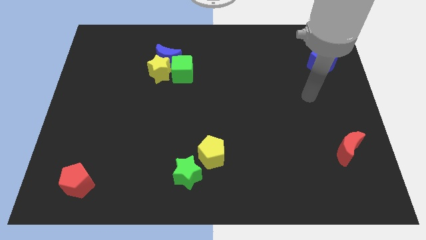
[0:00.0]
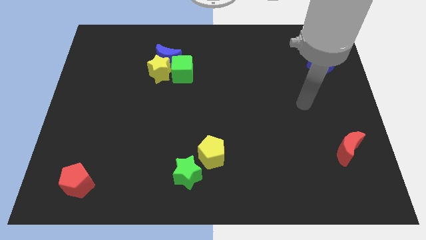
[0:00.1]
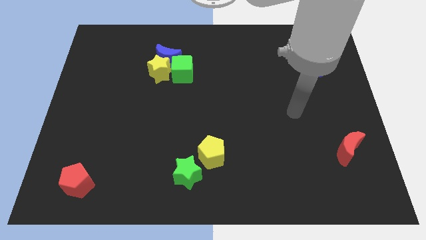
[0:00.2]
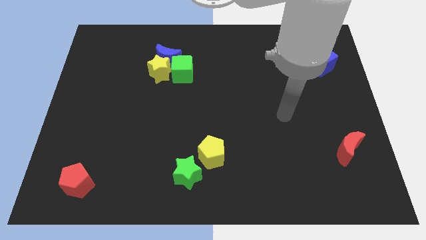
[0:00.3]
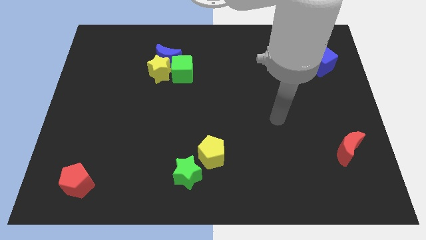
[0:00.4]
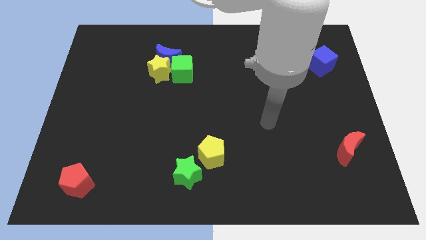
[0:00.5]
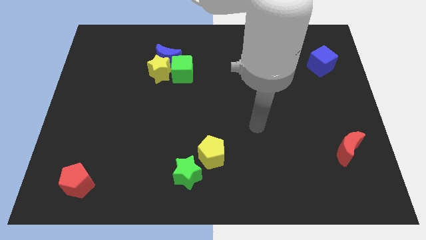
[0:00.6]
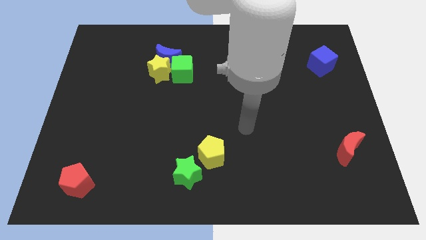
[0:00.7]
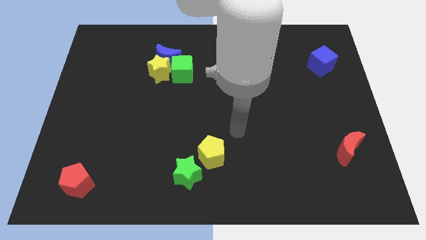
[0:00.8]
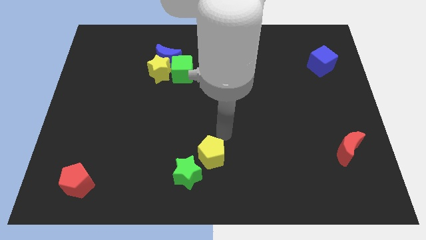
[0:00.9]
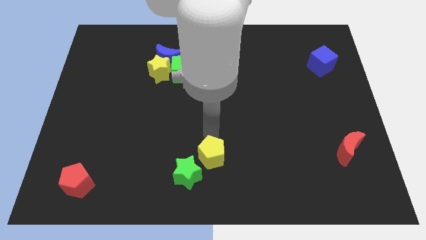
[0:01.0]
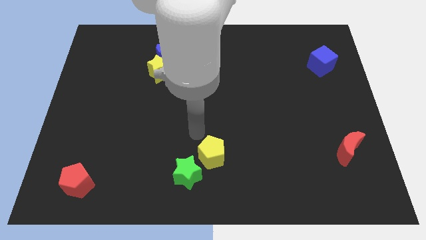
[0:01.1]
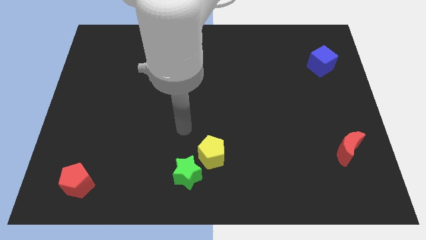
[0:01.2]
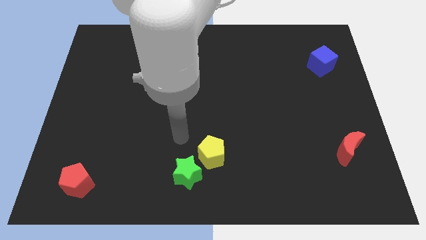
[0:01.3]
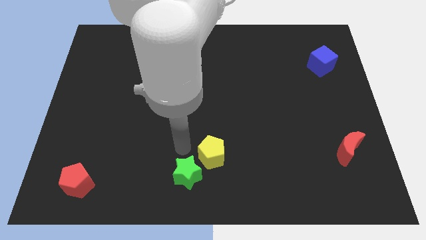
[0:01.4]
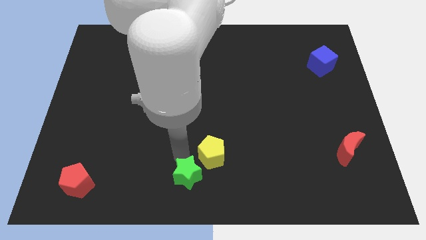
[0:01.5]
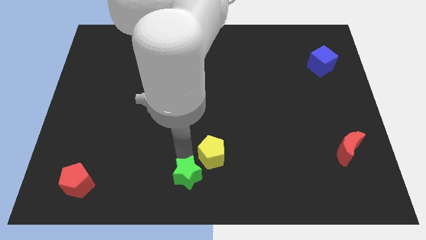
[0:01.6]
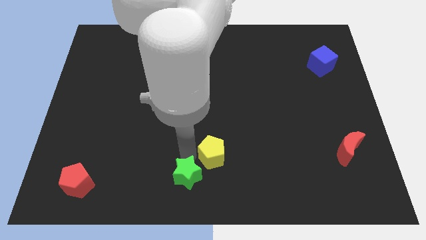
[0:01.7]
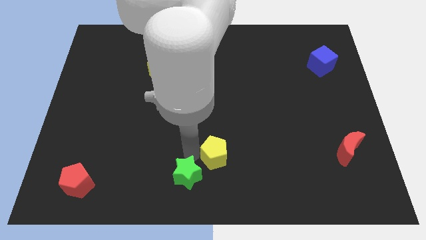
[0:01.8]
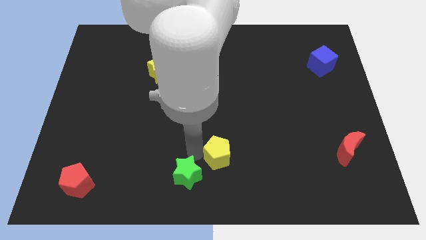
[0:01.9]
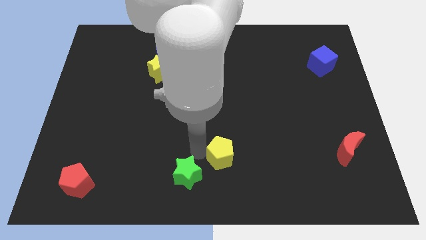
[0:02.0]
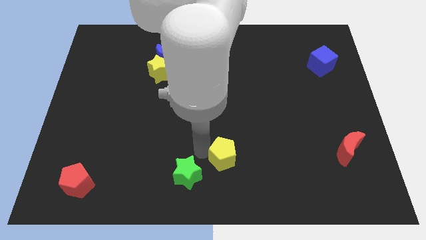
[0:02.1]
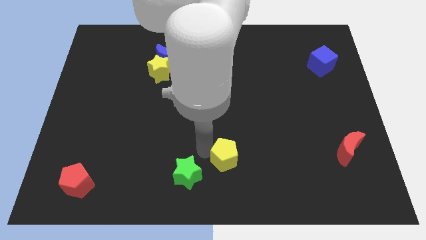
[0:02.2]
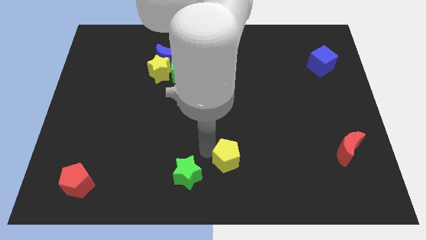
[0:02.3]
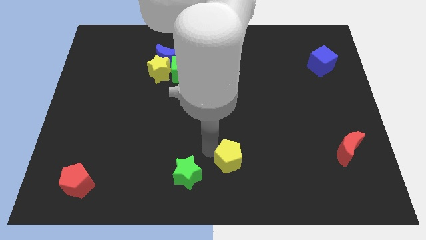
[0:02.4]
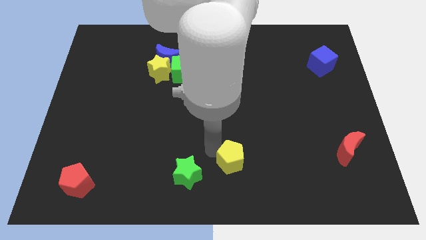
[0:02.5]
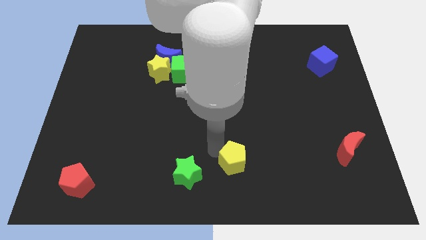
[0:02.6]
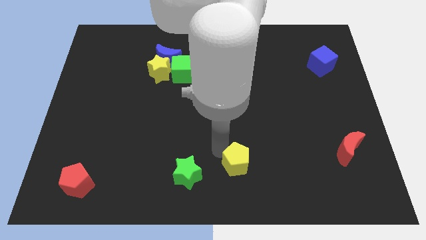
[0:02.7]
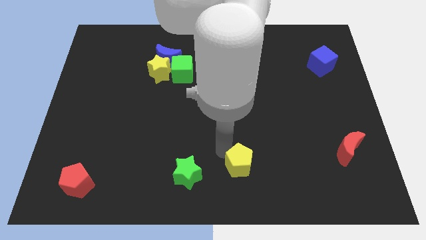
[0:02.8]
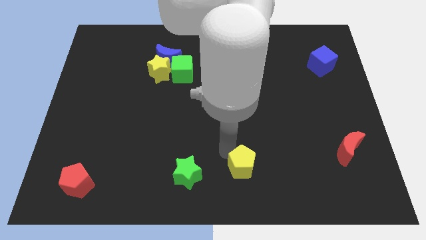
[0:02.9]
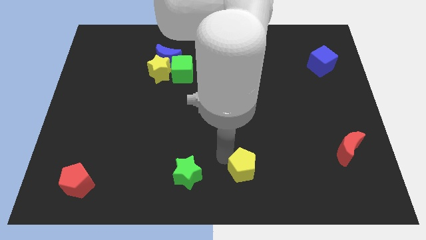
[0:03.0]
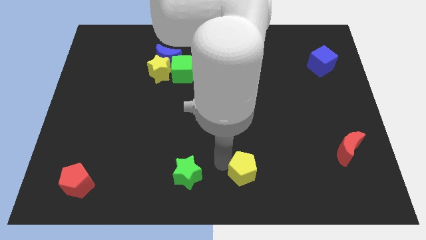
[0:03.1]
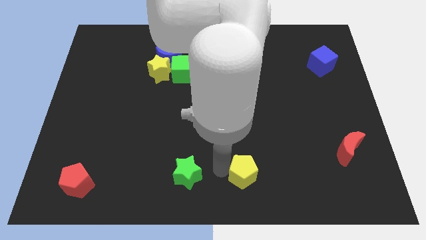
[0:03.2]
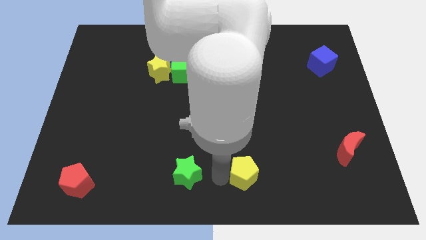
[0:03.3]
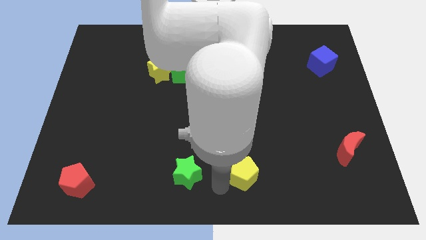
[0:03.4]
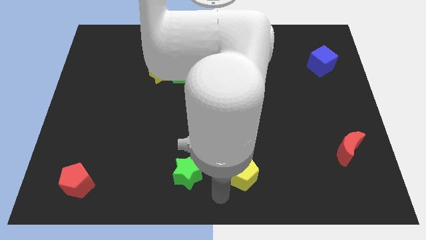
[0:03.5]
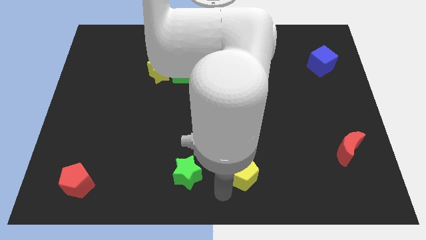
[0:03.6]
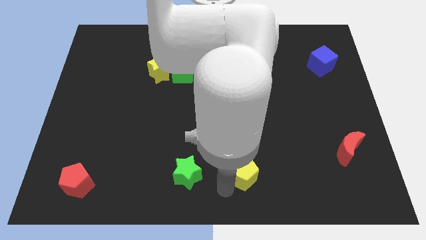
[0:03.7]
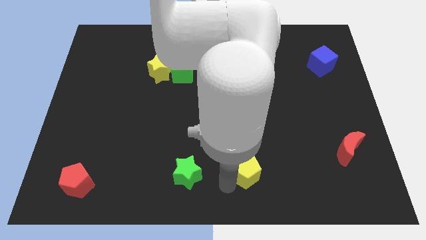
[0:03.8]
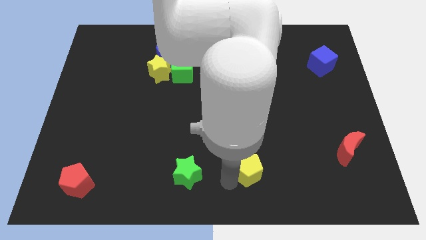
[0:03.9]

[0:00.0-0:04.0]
push the yellow pentagon right a bit

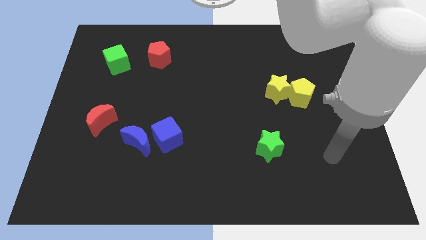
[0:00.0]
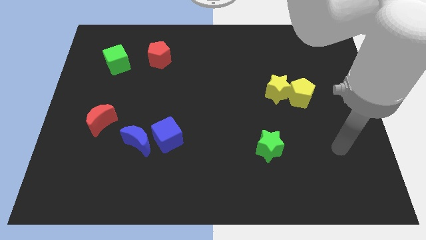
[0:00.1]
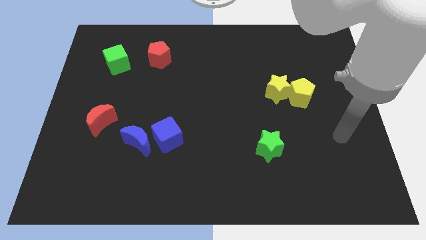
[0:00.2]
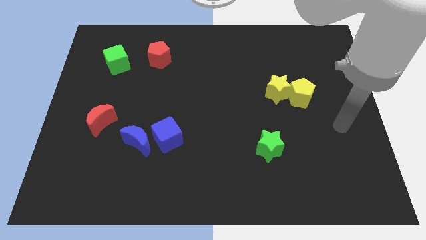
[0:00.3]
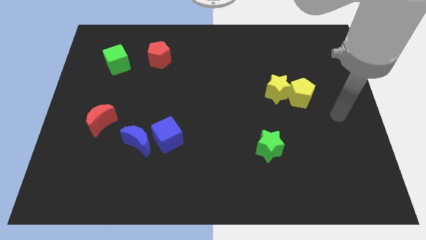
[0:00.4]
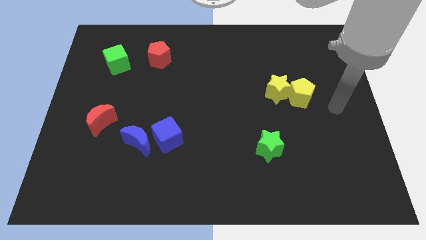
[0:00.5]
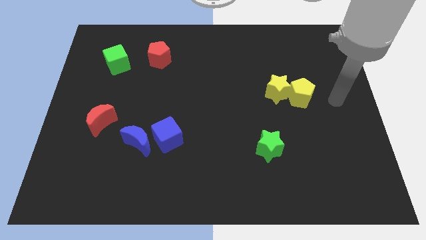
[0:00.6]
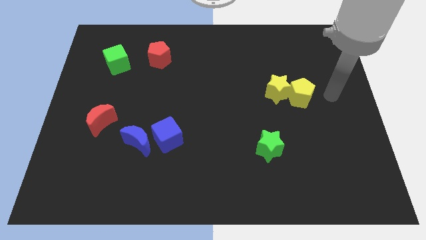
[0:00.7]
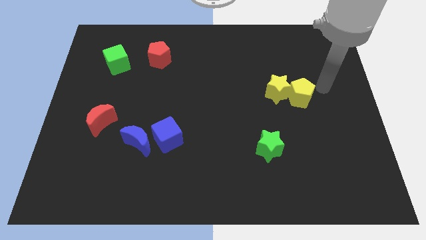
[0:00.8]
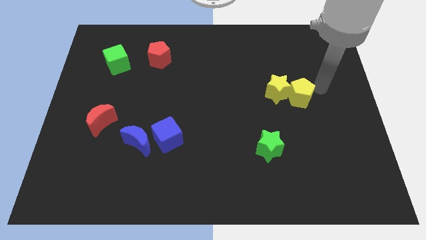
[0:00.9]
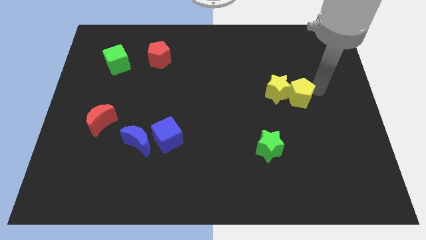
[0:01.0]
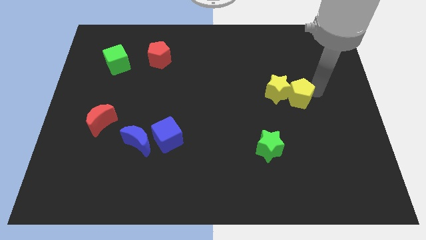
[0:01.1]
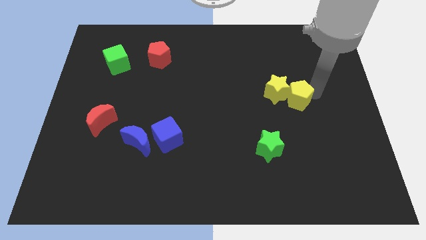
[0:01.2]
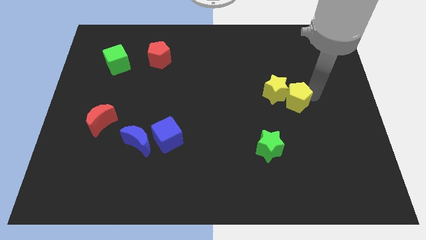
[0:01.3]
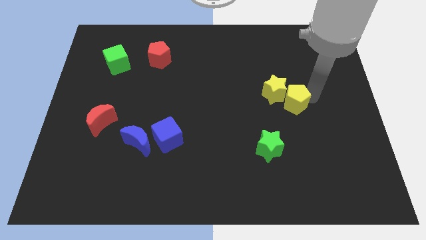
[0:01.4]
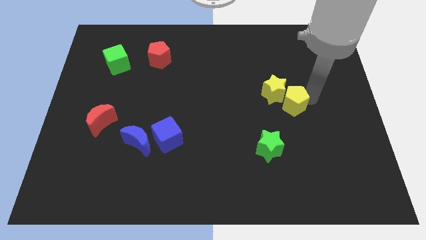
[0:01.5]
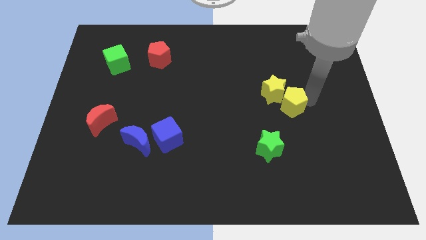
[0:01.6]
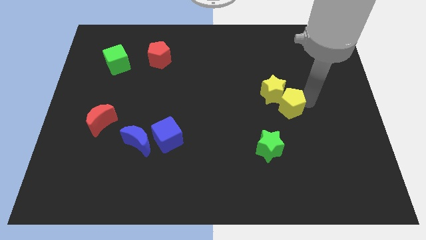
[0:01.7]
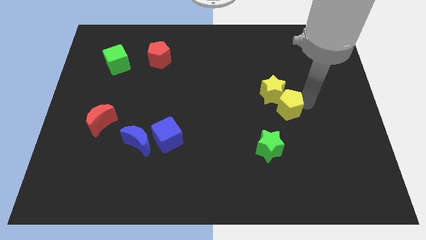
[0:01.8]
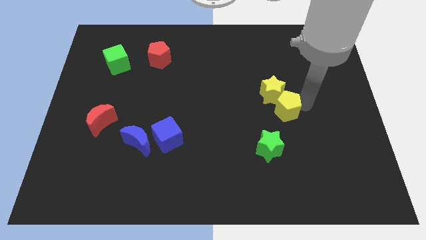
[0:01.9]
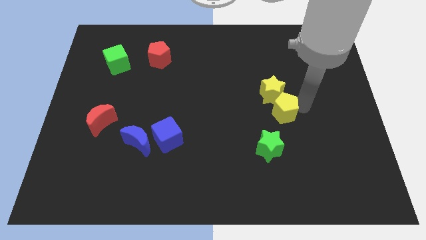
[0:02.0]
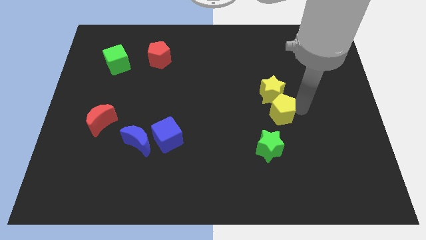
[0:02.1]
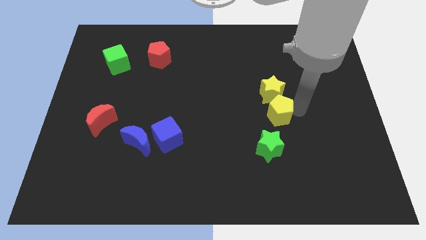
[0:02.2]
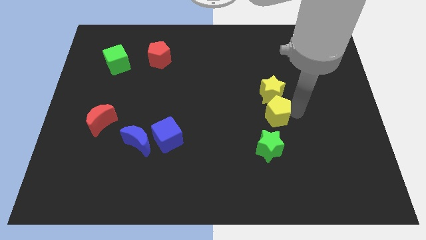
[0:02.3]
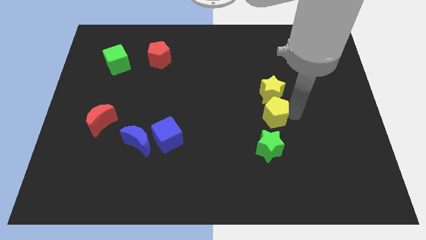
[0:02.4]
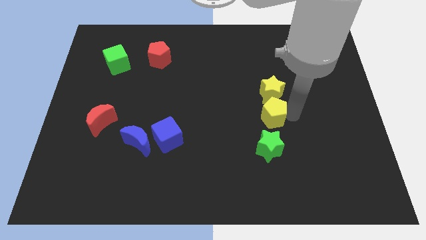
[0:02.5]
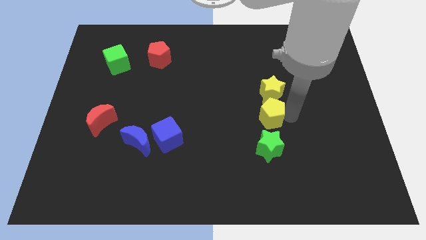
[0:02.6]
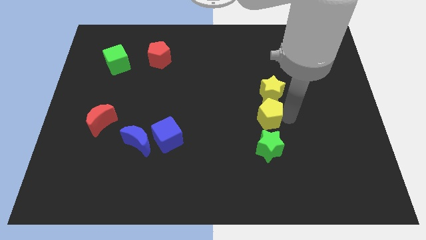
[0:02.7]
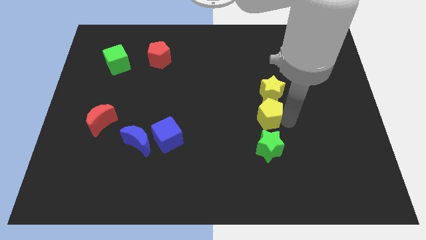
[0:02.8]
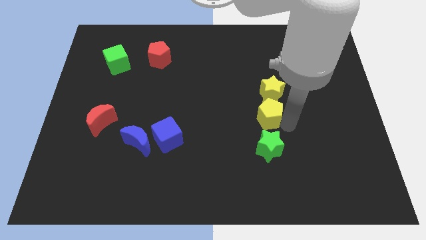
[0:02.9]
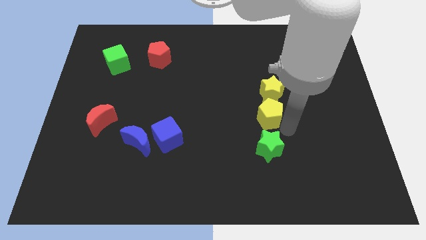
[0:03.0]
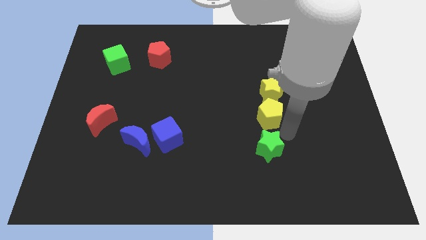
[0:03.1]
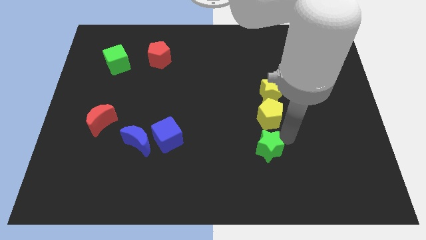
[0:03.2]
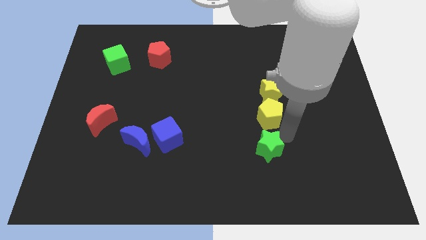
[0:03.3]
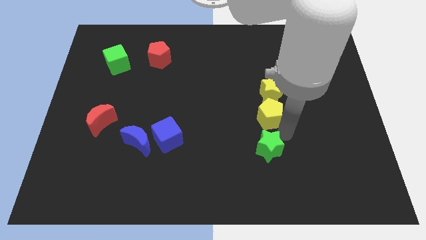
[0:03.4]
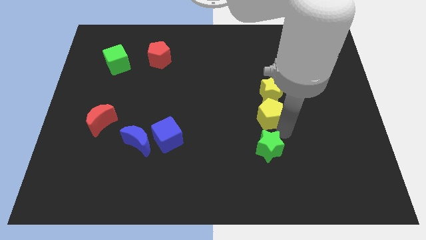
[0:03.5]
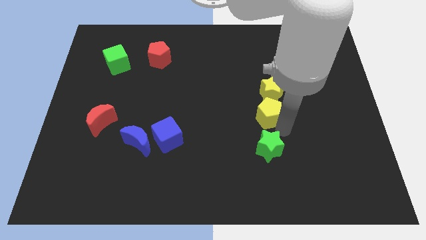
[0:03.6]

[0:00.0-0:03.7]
slightly slide the yellow pentagon to the left

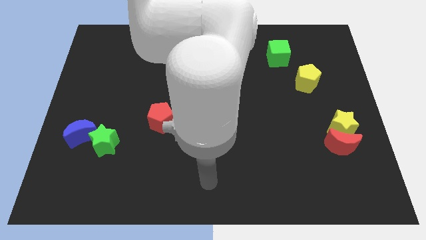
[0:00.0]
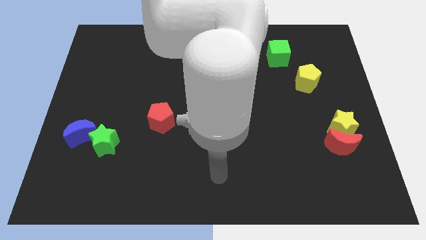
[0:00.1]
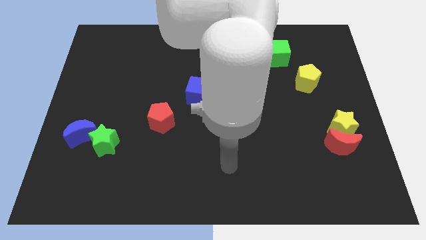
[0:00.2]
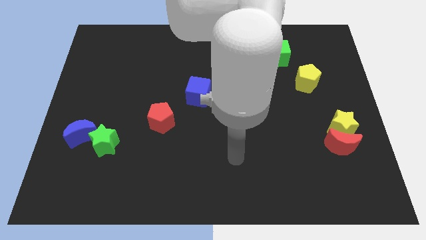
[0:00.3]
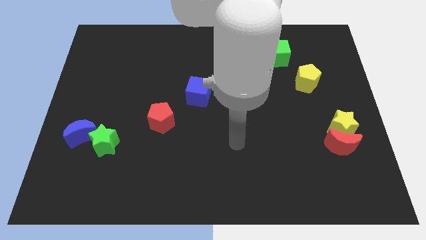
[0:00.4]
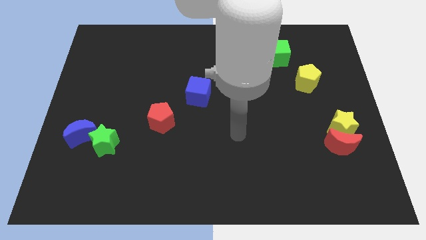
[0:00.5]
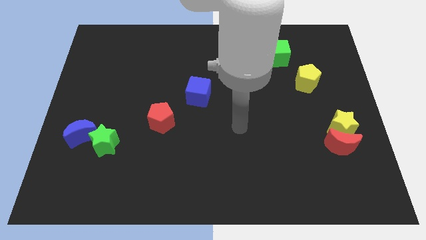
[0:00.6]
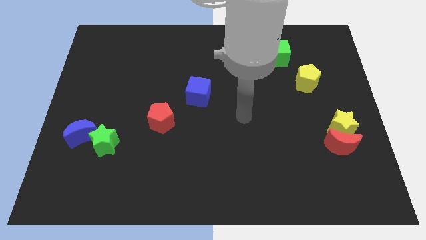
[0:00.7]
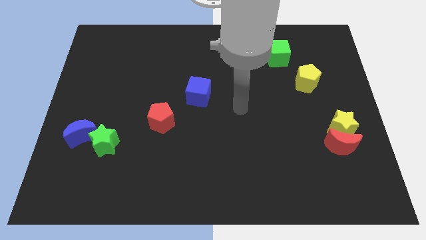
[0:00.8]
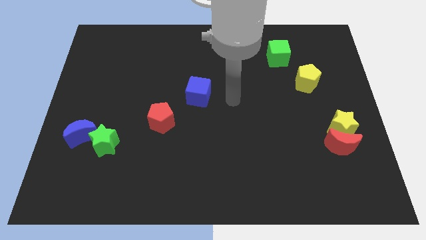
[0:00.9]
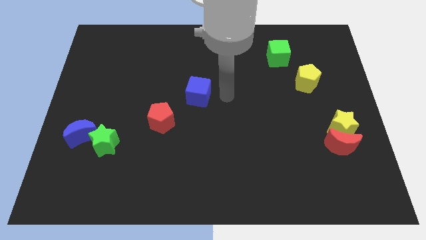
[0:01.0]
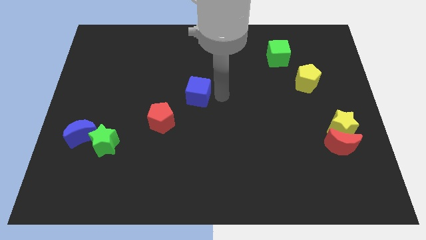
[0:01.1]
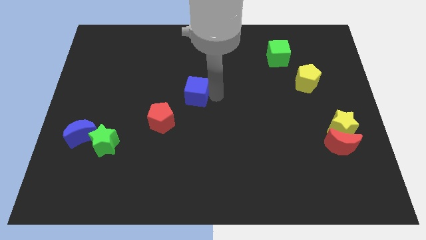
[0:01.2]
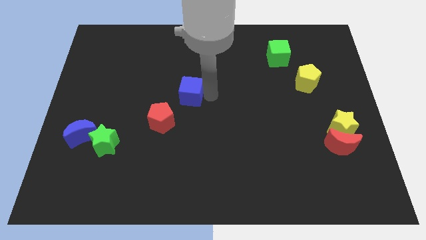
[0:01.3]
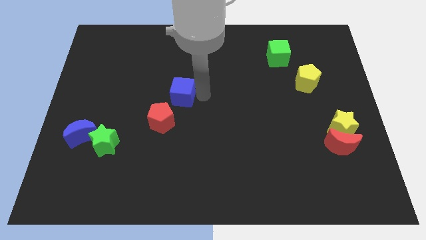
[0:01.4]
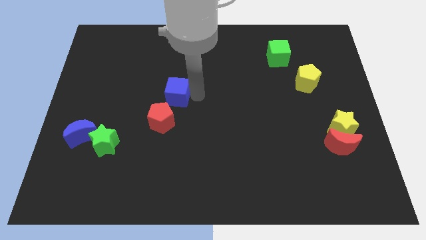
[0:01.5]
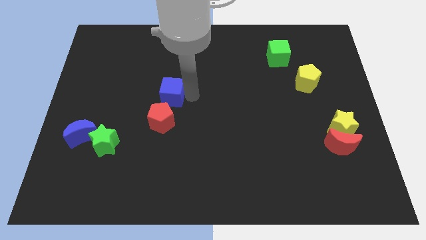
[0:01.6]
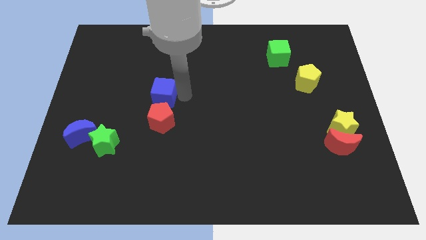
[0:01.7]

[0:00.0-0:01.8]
slide the blue cube somewhat left
